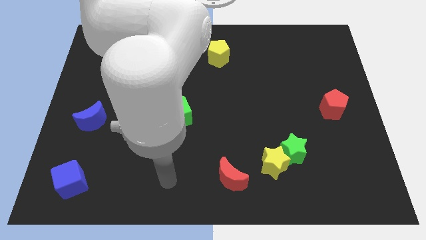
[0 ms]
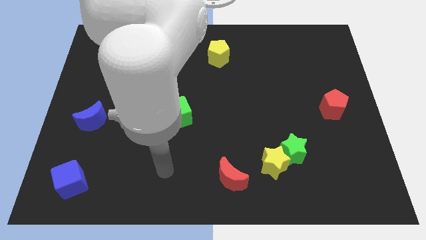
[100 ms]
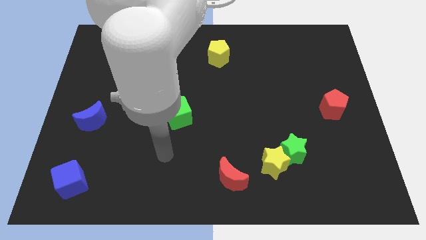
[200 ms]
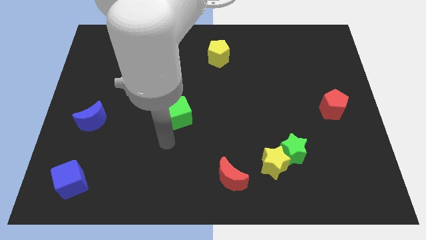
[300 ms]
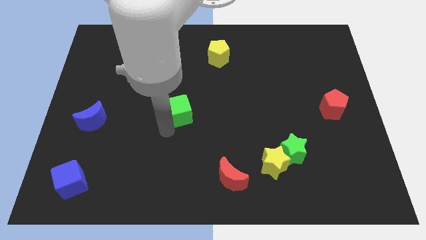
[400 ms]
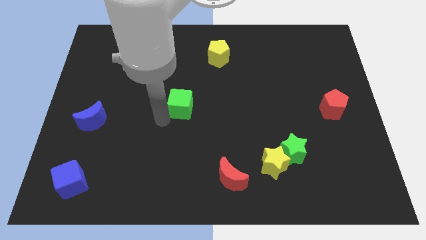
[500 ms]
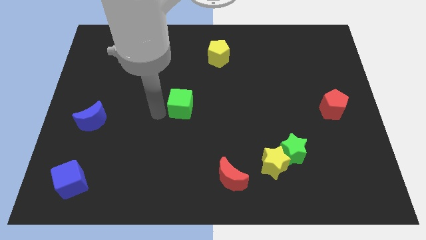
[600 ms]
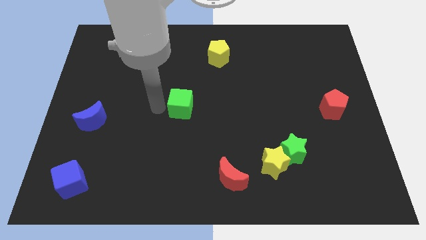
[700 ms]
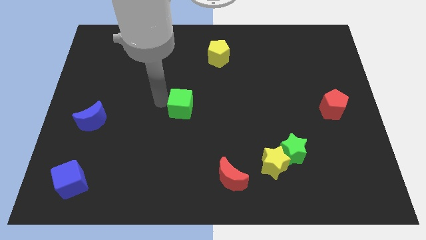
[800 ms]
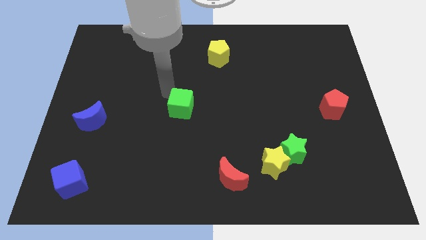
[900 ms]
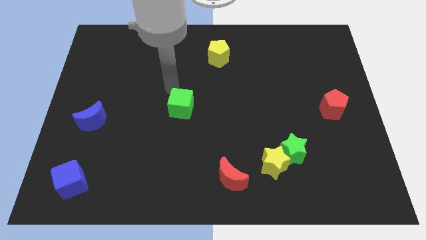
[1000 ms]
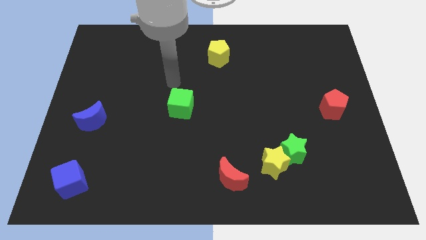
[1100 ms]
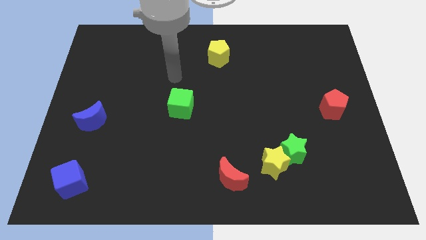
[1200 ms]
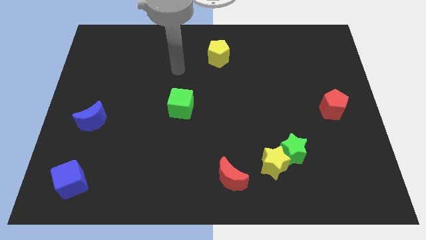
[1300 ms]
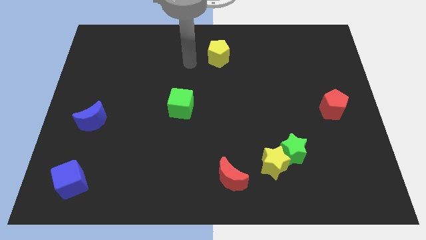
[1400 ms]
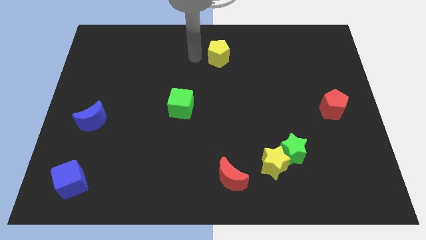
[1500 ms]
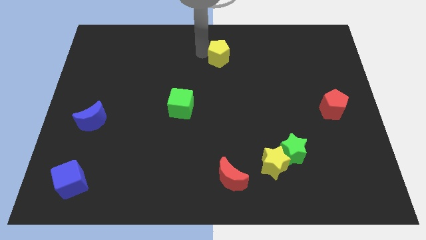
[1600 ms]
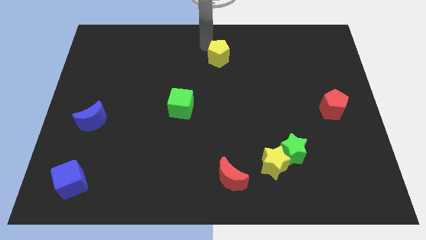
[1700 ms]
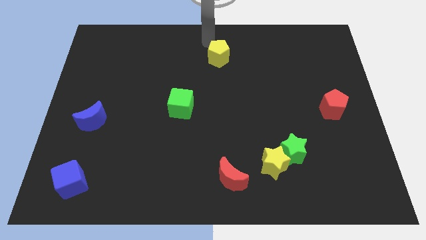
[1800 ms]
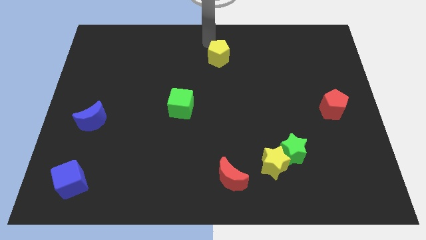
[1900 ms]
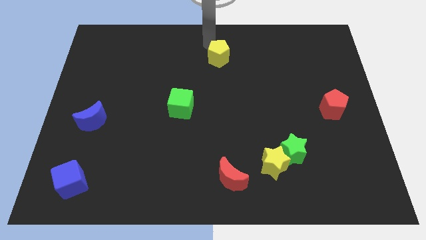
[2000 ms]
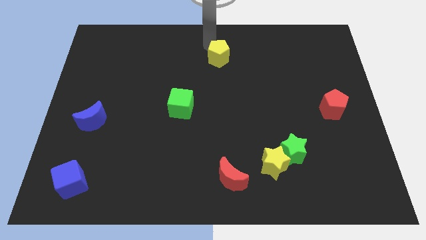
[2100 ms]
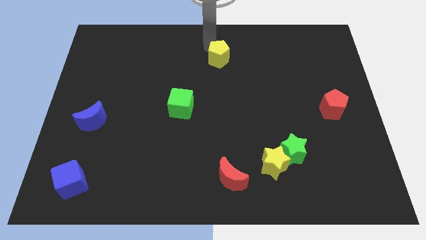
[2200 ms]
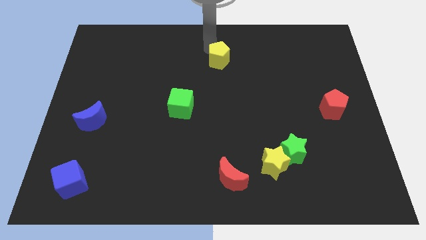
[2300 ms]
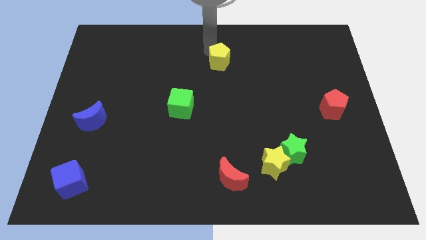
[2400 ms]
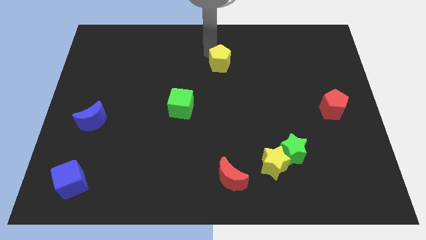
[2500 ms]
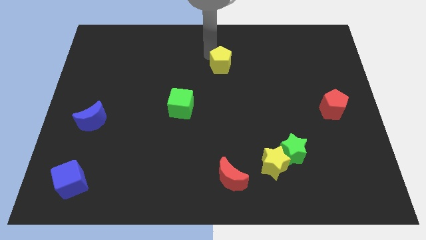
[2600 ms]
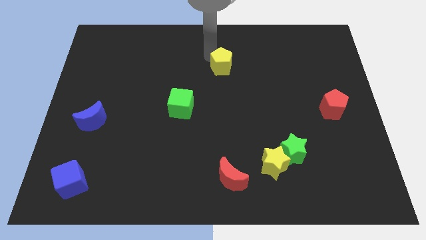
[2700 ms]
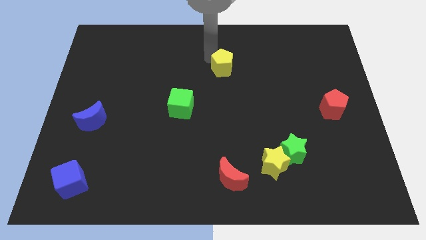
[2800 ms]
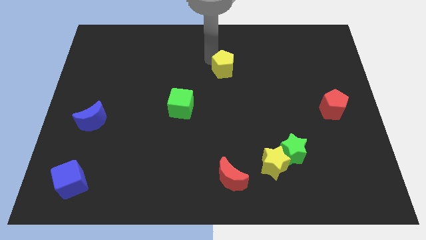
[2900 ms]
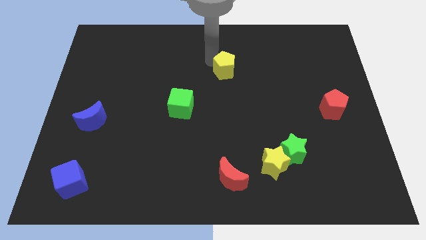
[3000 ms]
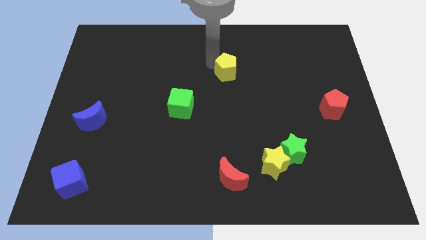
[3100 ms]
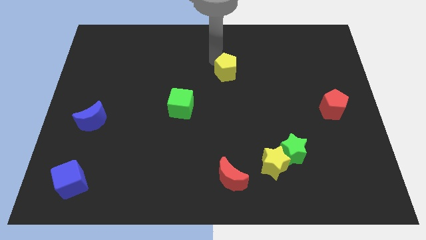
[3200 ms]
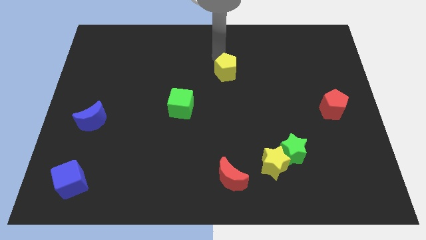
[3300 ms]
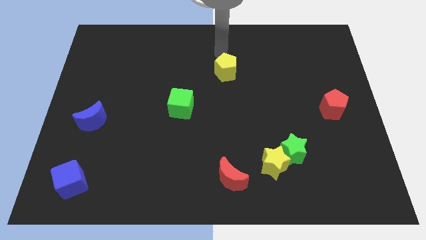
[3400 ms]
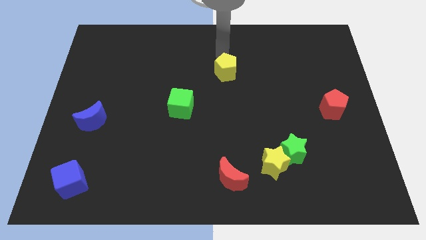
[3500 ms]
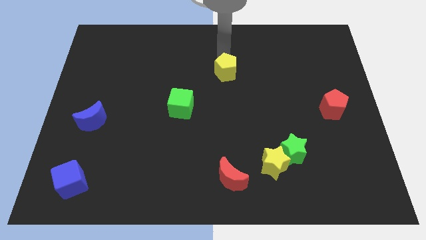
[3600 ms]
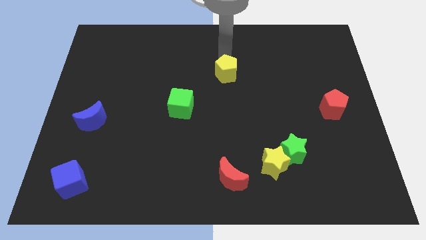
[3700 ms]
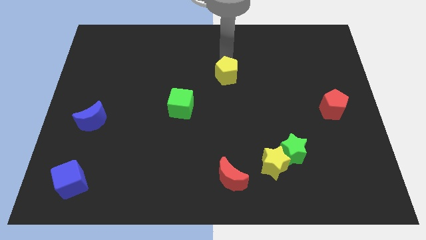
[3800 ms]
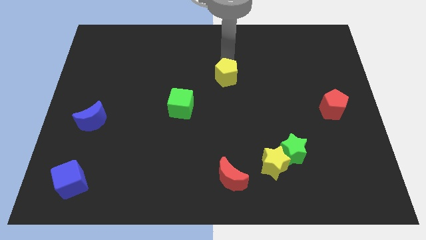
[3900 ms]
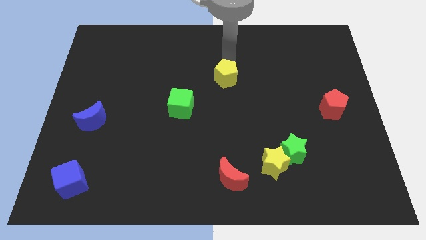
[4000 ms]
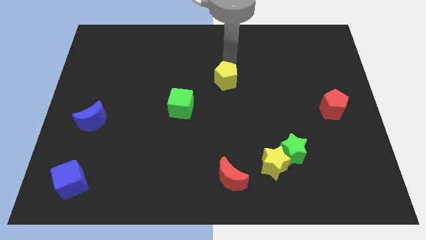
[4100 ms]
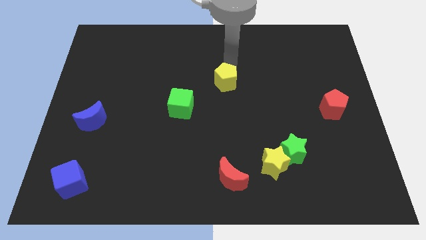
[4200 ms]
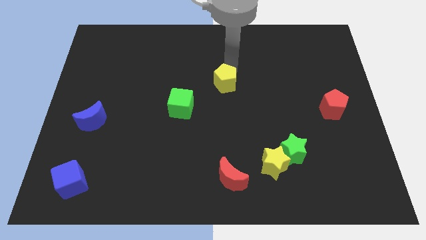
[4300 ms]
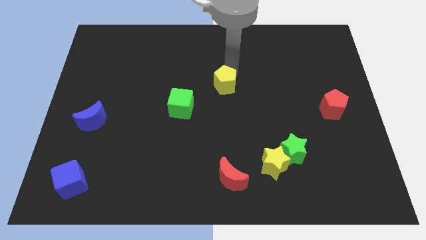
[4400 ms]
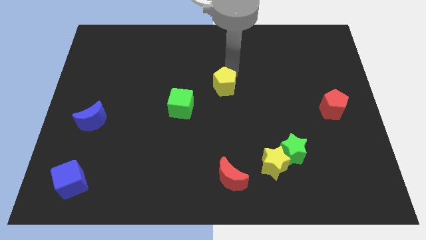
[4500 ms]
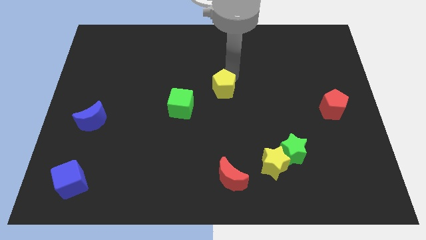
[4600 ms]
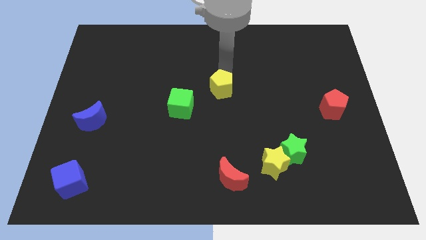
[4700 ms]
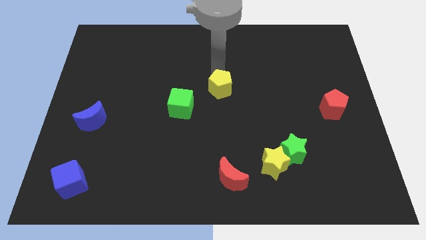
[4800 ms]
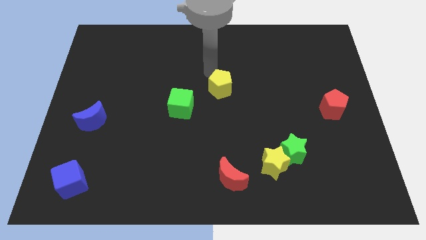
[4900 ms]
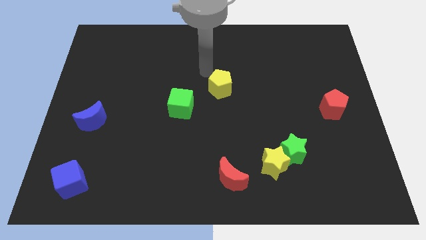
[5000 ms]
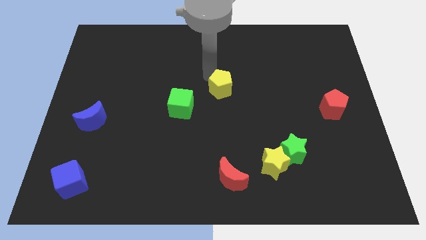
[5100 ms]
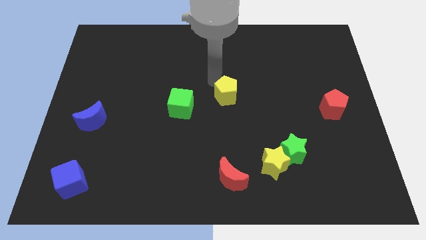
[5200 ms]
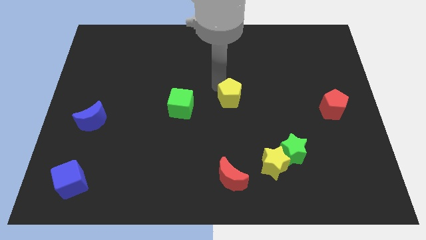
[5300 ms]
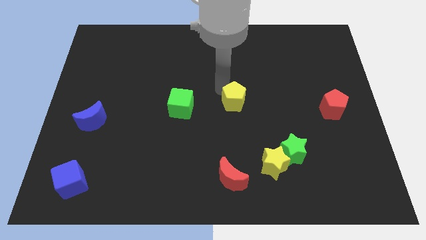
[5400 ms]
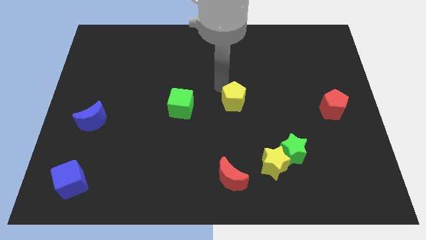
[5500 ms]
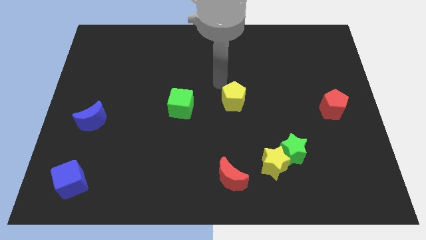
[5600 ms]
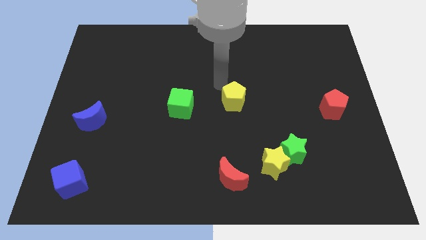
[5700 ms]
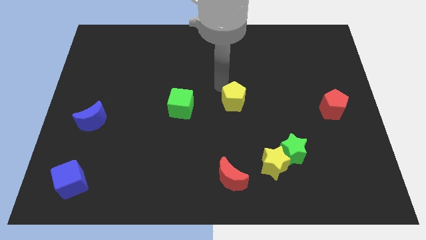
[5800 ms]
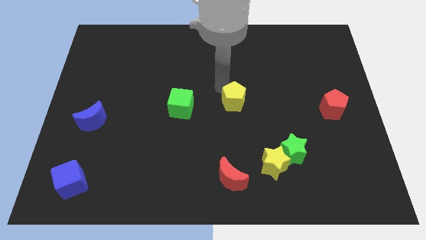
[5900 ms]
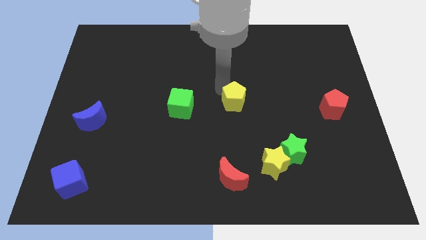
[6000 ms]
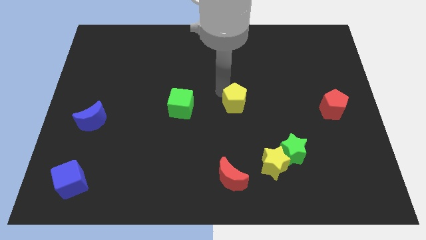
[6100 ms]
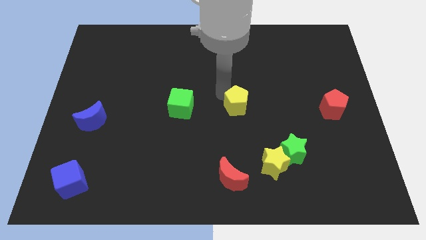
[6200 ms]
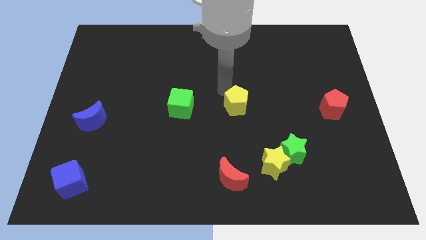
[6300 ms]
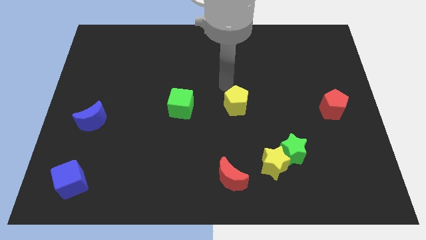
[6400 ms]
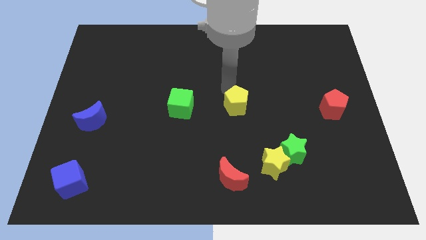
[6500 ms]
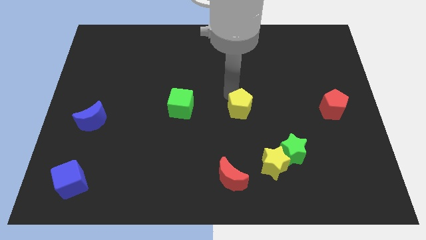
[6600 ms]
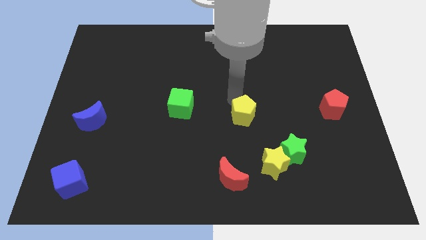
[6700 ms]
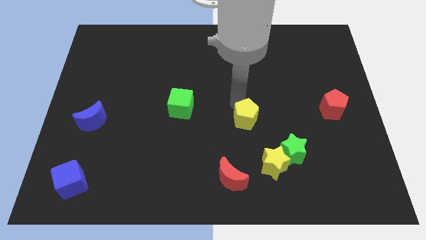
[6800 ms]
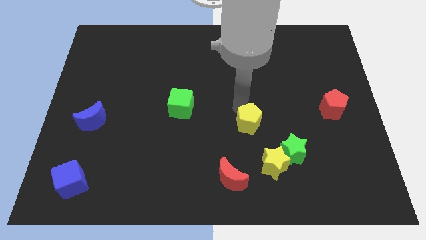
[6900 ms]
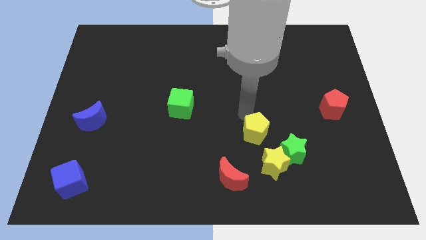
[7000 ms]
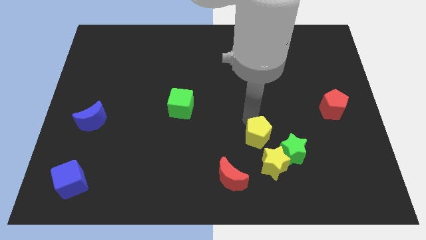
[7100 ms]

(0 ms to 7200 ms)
move the yellow pentagon to the left of the green star
